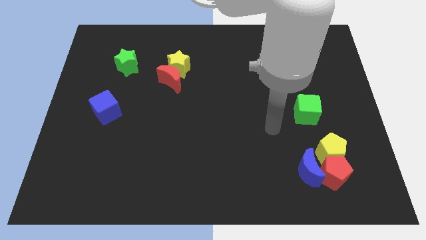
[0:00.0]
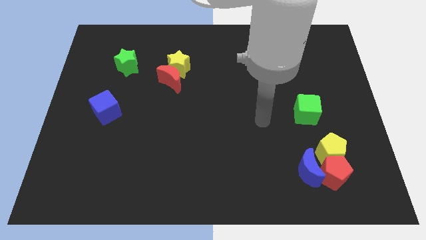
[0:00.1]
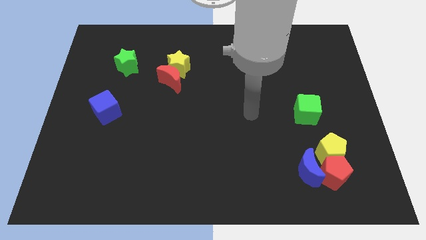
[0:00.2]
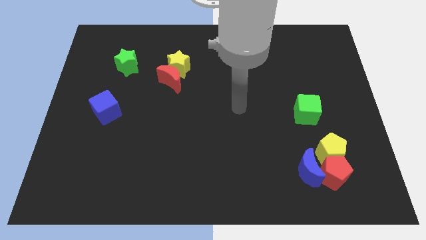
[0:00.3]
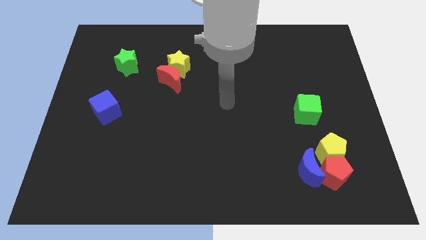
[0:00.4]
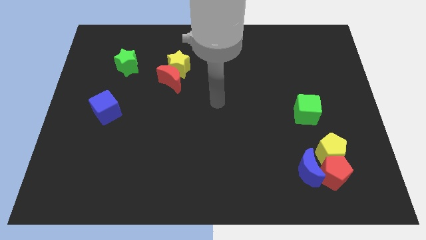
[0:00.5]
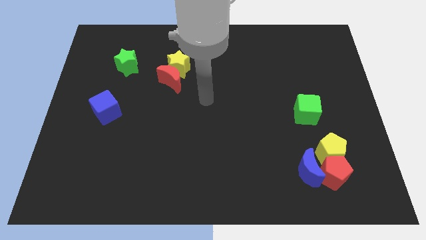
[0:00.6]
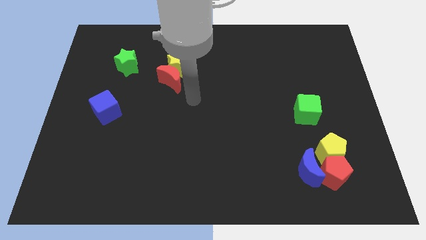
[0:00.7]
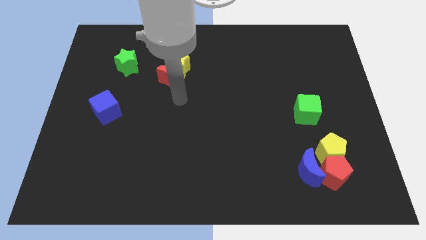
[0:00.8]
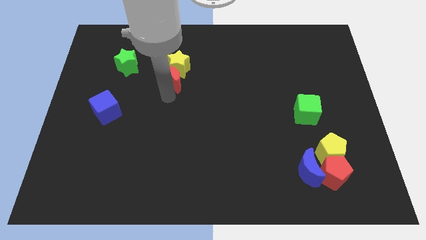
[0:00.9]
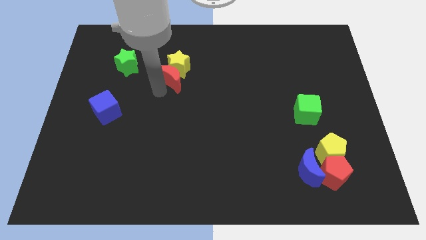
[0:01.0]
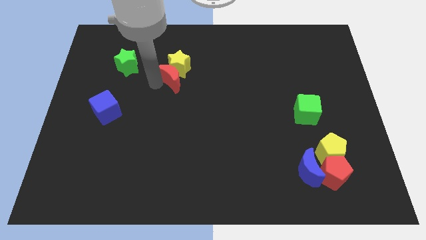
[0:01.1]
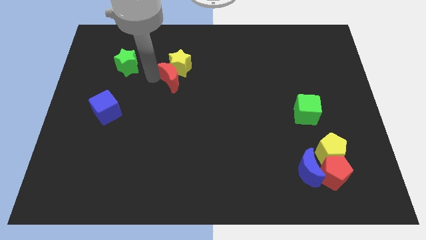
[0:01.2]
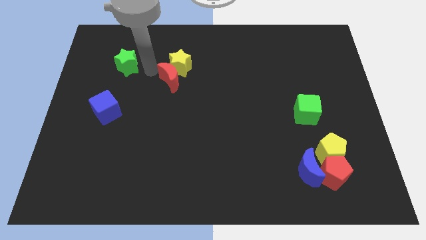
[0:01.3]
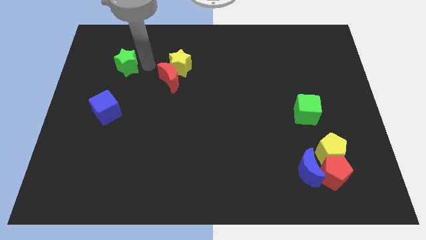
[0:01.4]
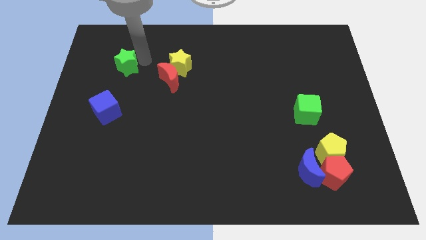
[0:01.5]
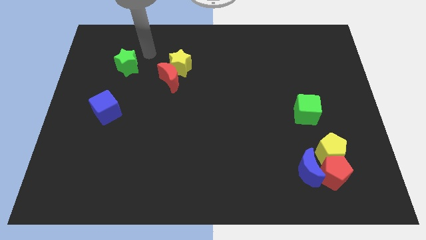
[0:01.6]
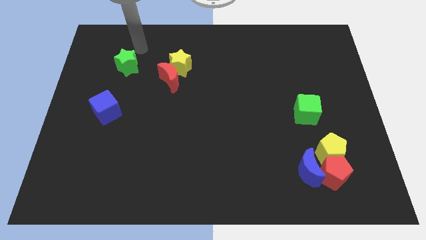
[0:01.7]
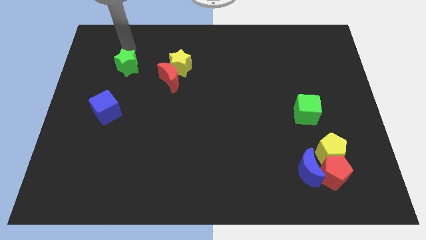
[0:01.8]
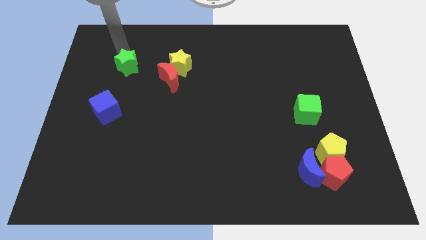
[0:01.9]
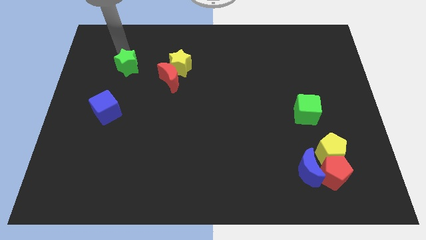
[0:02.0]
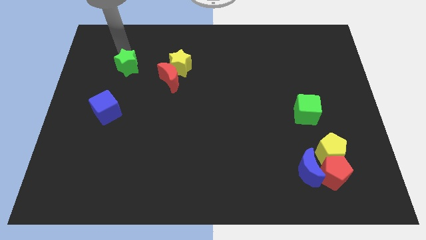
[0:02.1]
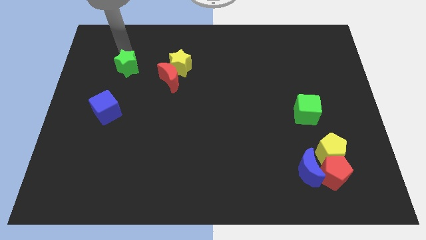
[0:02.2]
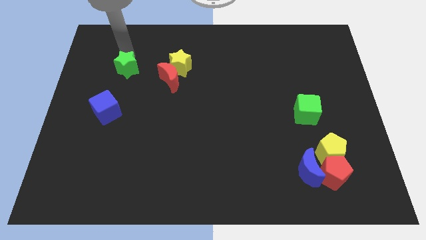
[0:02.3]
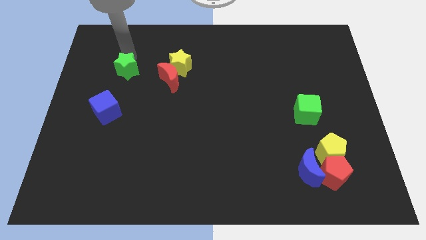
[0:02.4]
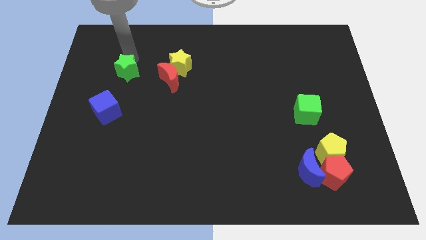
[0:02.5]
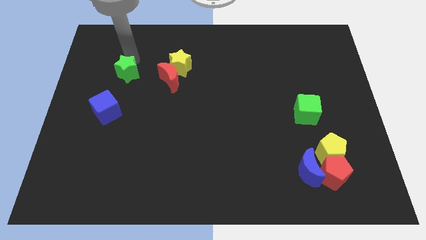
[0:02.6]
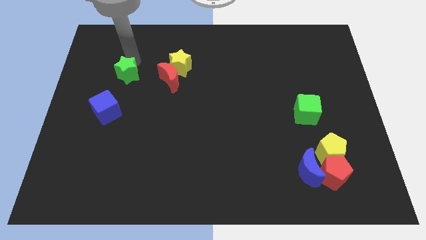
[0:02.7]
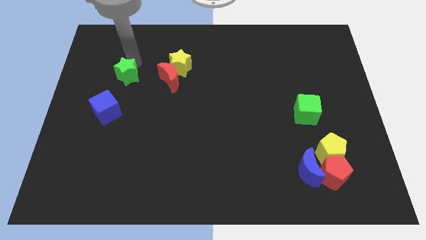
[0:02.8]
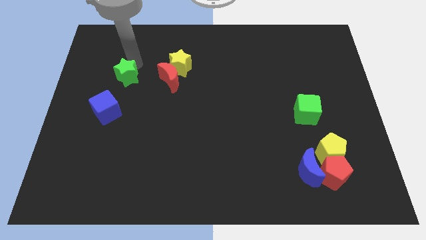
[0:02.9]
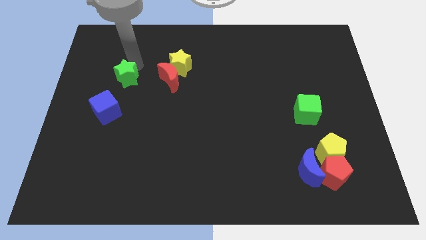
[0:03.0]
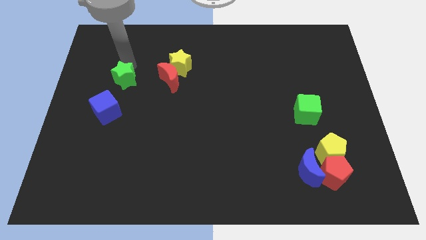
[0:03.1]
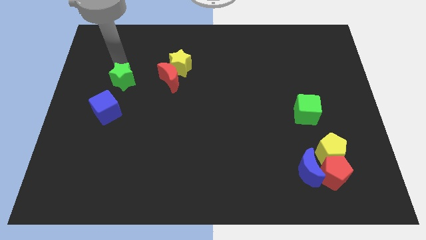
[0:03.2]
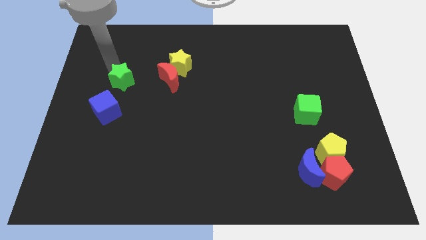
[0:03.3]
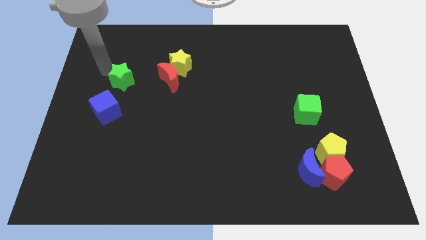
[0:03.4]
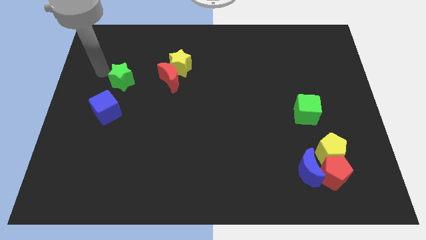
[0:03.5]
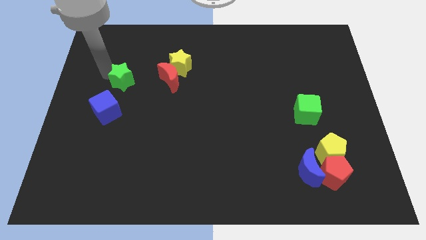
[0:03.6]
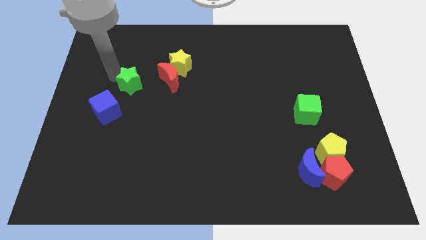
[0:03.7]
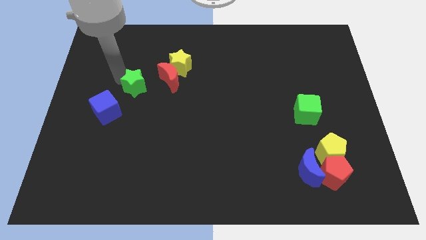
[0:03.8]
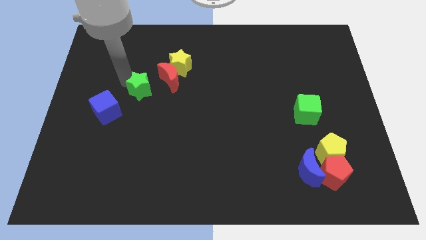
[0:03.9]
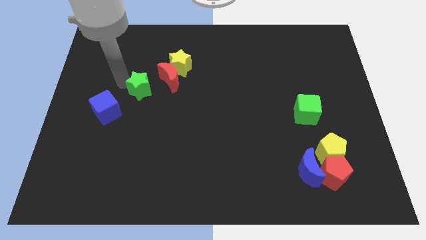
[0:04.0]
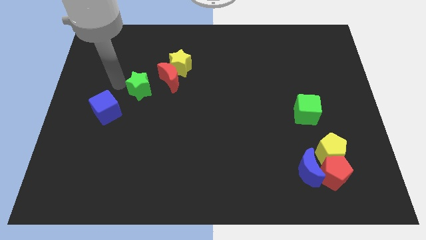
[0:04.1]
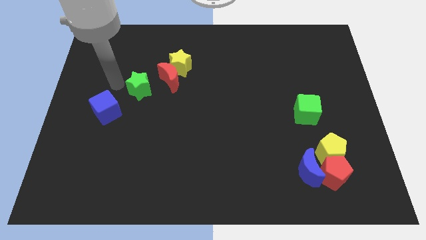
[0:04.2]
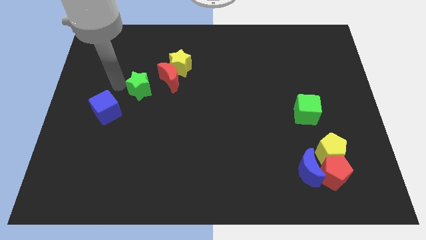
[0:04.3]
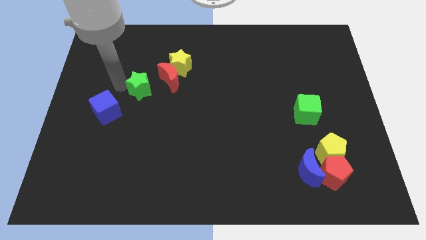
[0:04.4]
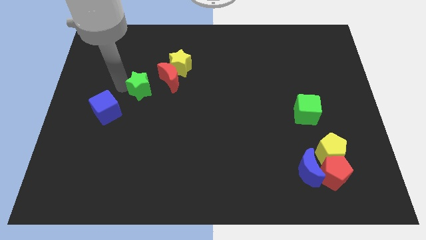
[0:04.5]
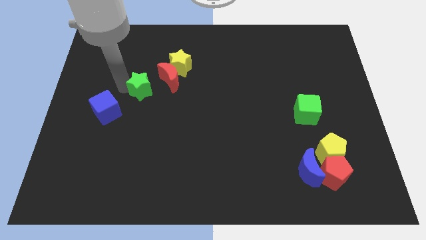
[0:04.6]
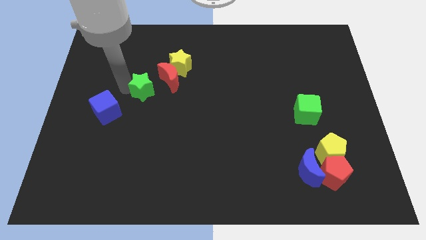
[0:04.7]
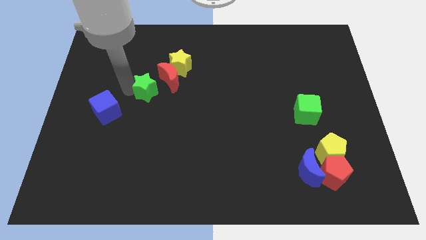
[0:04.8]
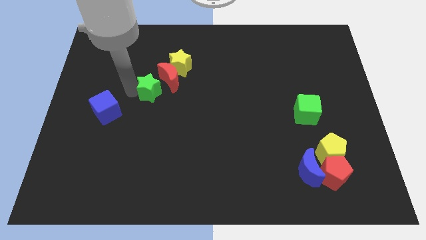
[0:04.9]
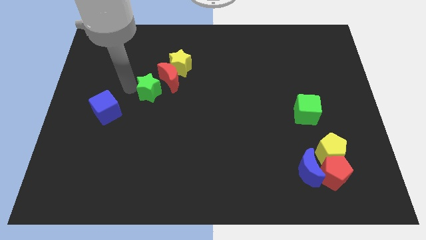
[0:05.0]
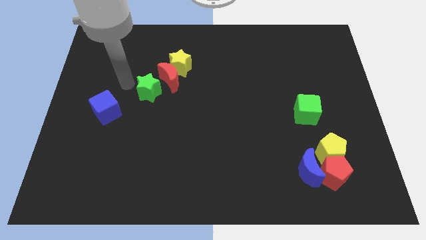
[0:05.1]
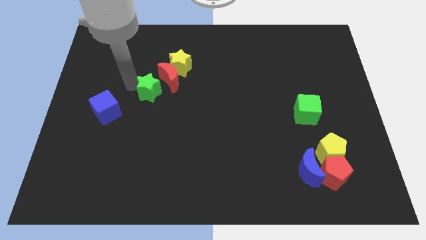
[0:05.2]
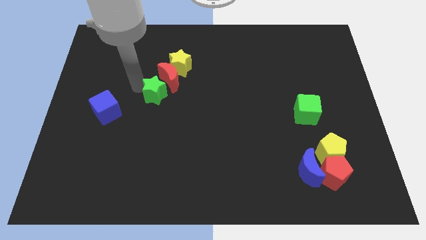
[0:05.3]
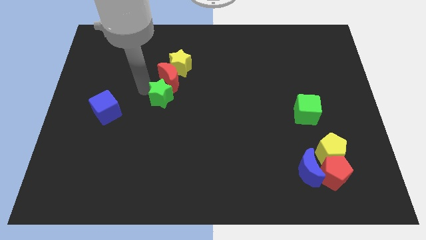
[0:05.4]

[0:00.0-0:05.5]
put the green star to the bottom side of the yellow star

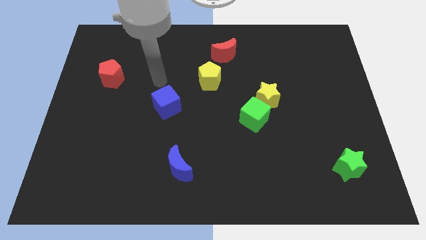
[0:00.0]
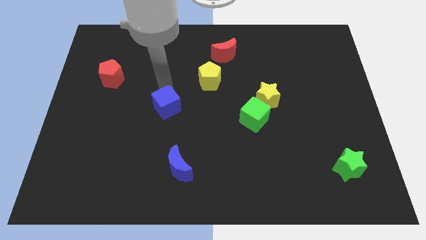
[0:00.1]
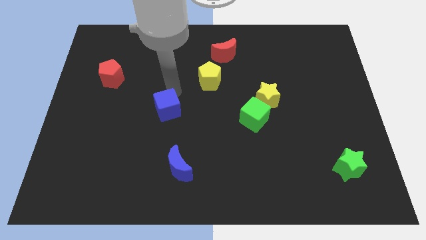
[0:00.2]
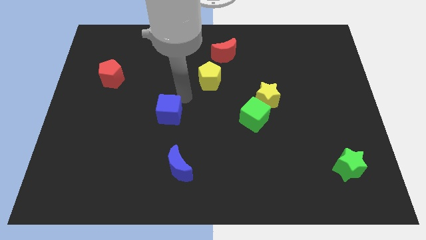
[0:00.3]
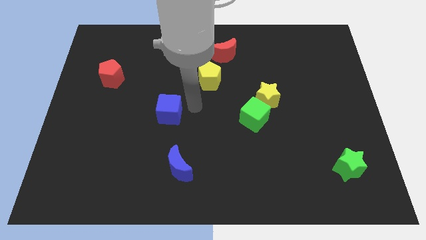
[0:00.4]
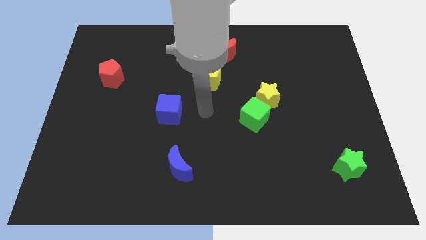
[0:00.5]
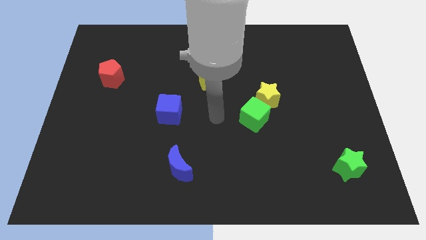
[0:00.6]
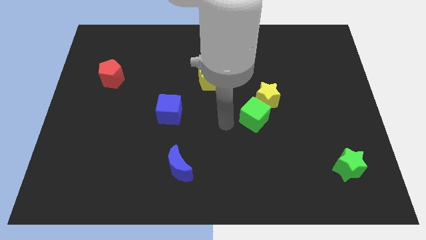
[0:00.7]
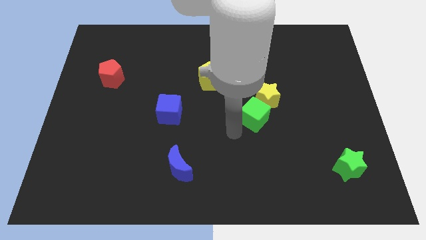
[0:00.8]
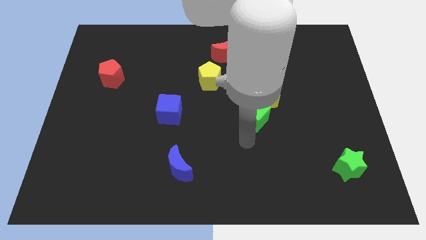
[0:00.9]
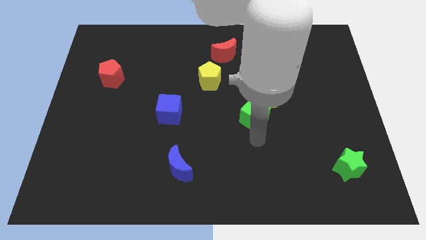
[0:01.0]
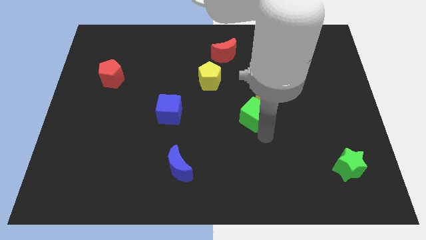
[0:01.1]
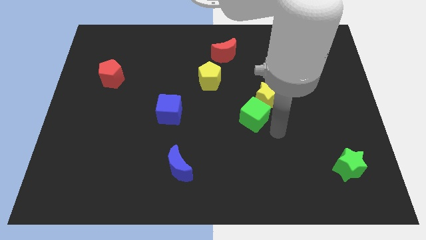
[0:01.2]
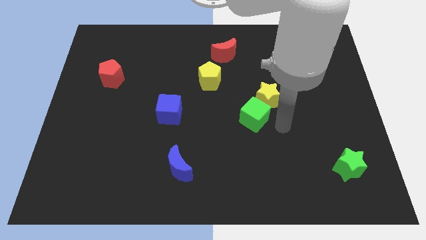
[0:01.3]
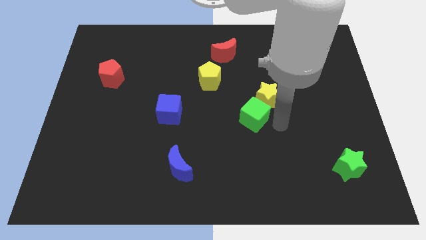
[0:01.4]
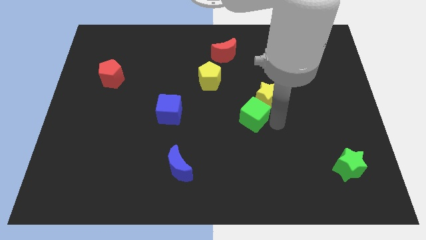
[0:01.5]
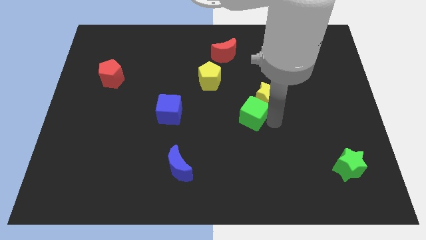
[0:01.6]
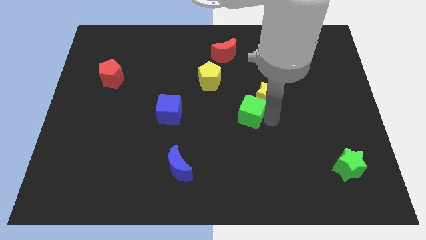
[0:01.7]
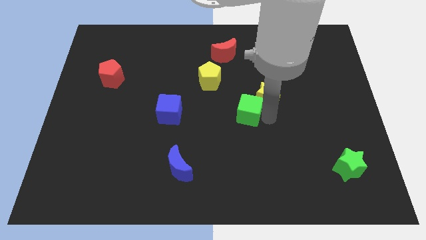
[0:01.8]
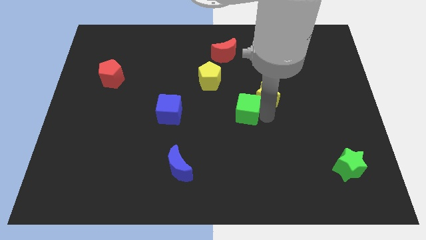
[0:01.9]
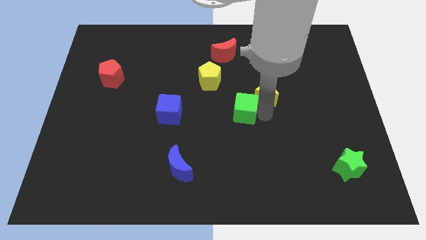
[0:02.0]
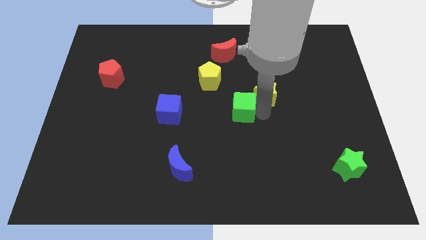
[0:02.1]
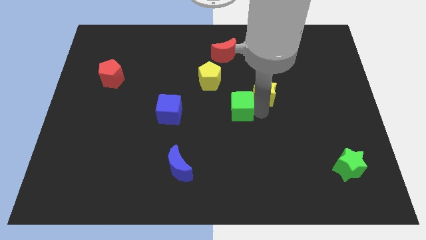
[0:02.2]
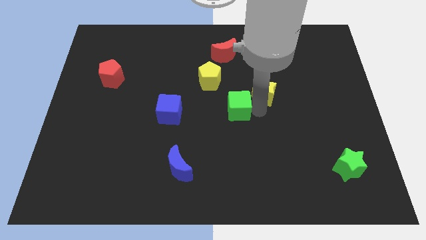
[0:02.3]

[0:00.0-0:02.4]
put the green cube to the right side of the blue cube
